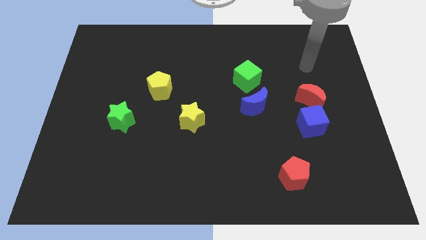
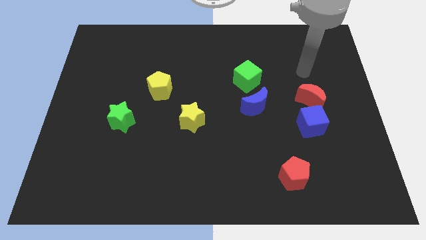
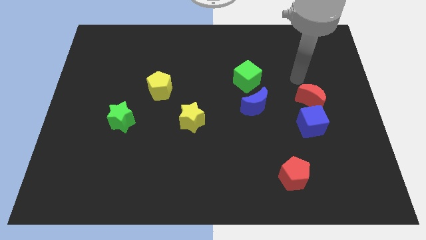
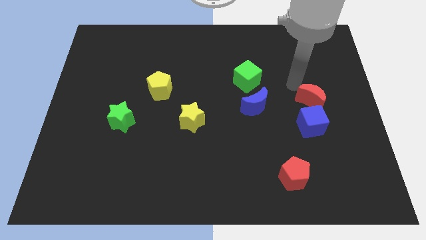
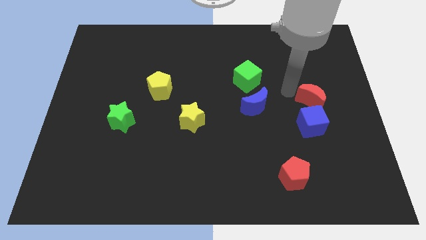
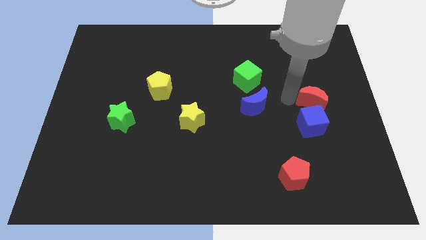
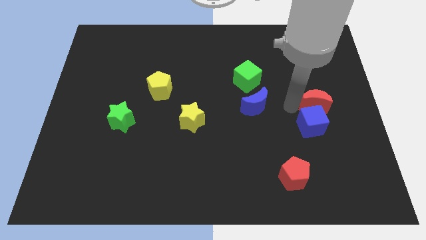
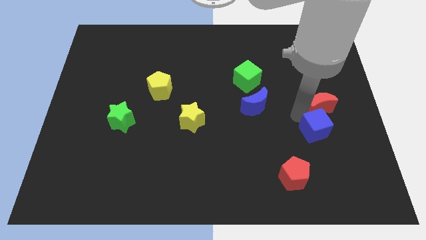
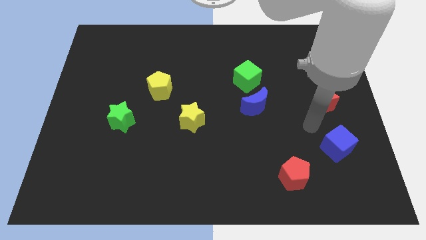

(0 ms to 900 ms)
pull the red moon apart from the blue cube

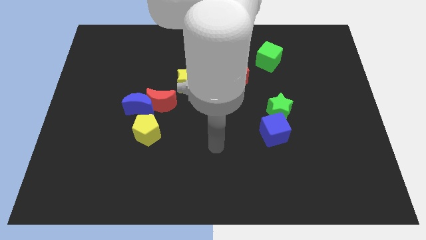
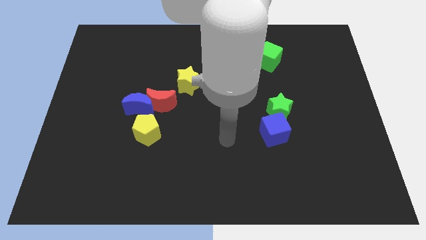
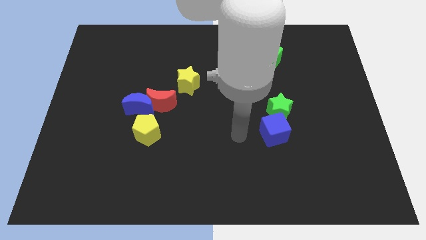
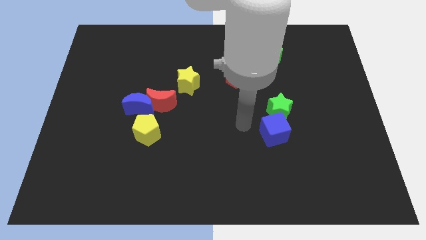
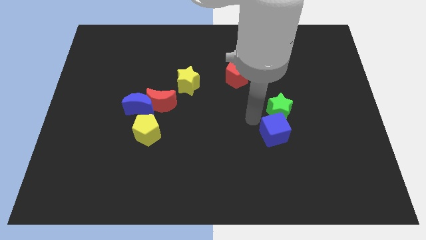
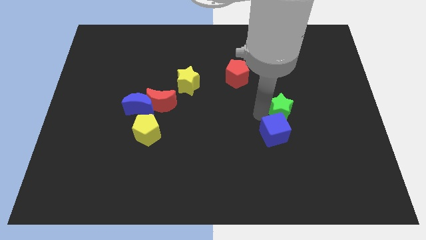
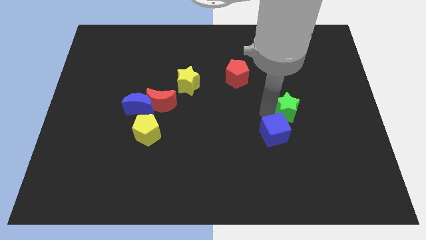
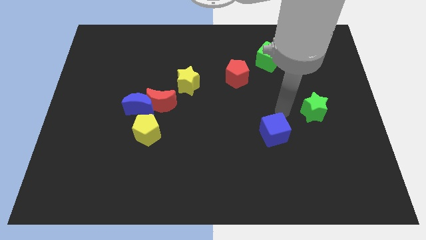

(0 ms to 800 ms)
move the blue cube away from the green star

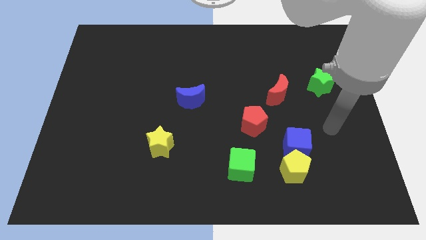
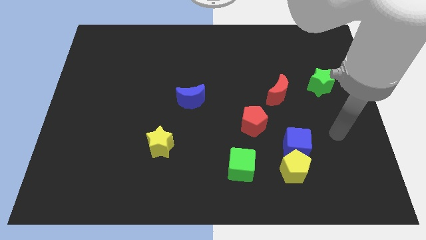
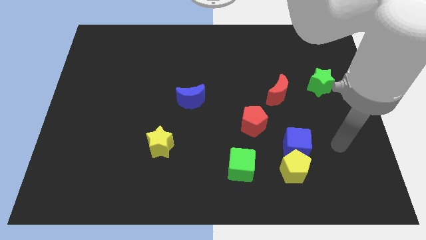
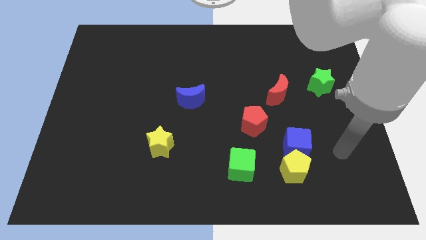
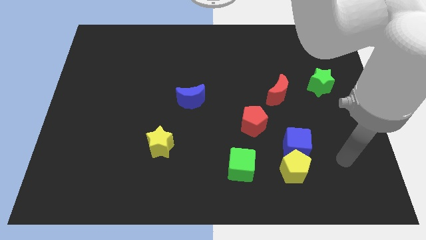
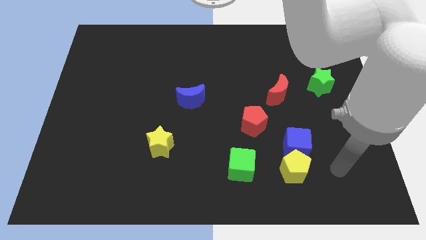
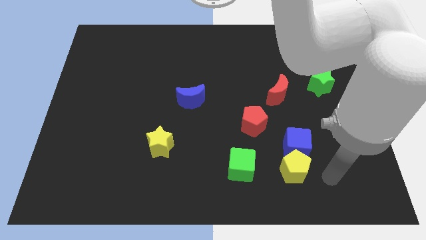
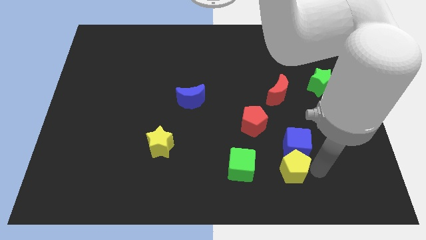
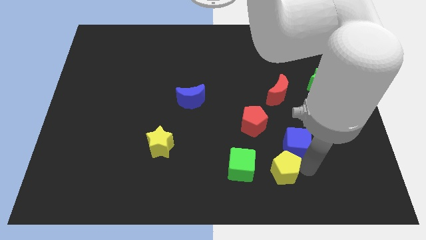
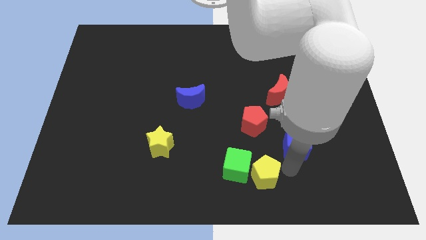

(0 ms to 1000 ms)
separate the blue cube from the yellow pentagon

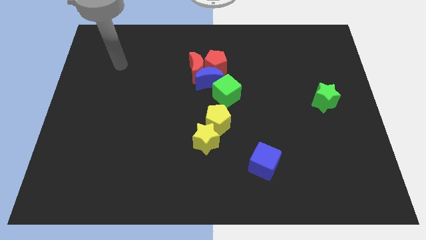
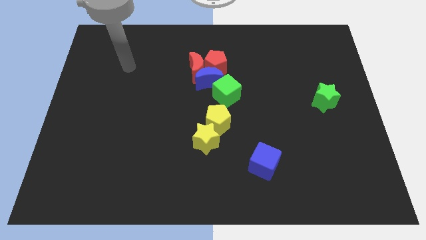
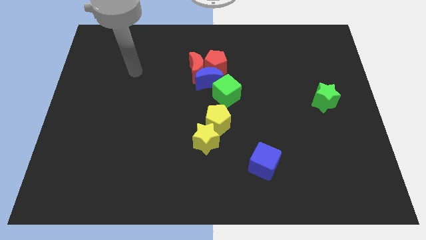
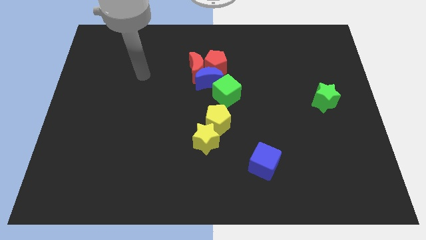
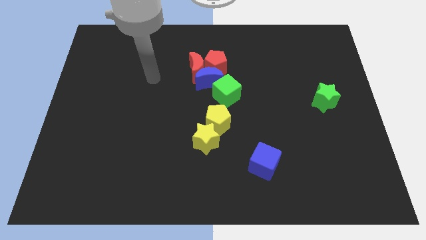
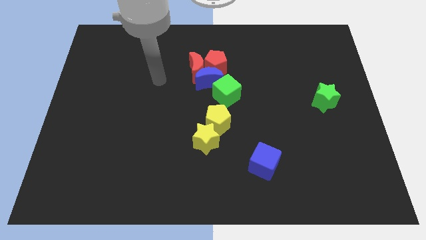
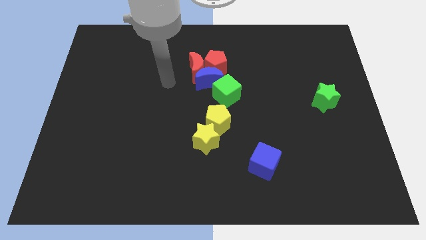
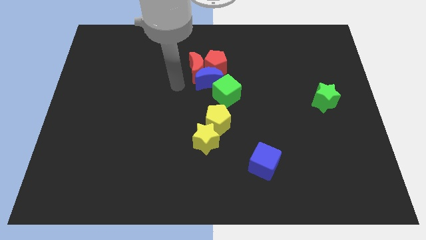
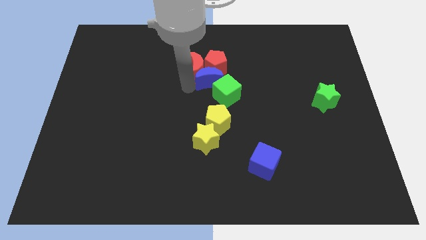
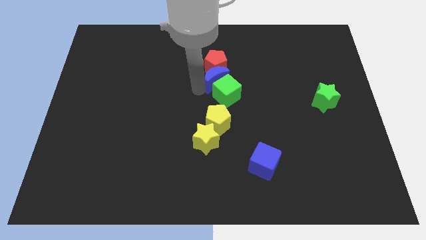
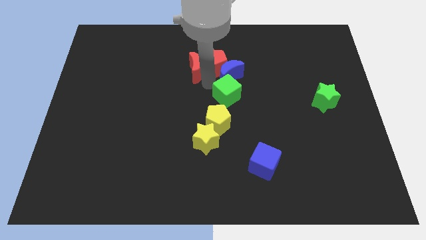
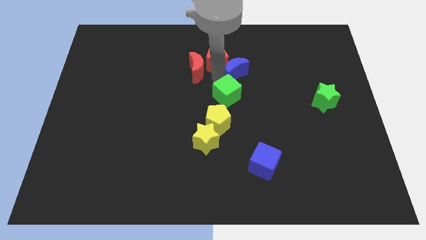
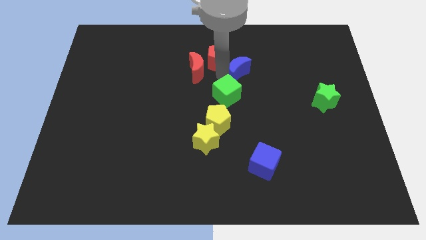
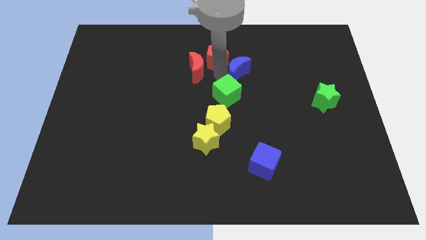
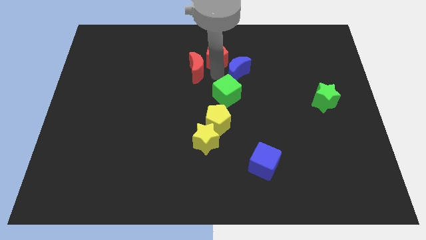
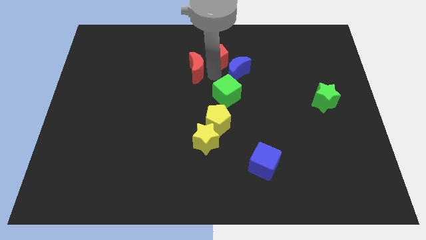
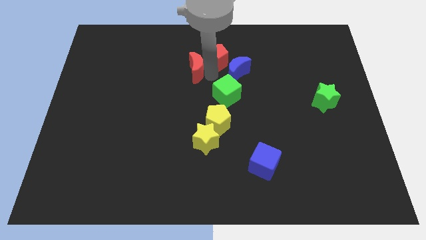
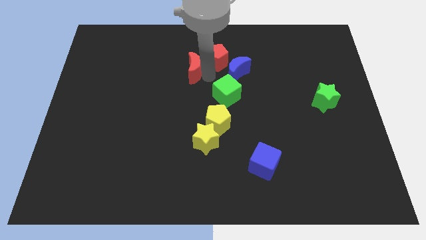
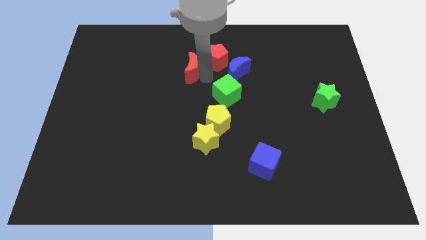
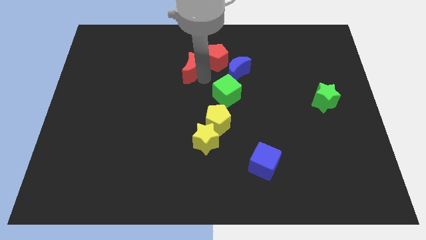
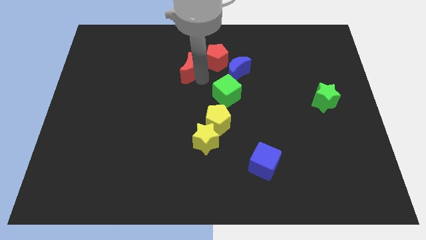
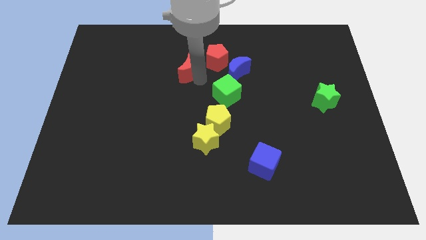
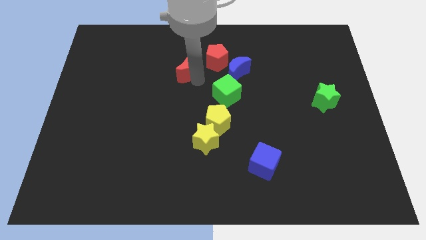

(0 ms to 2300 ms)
pull the red moon apart from the red pentagon and blue moon

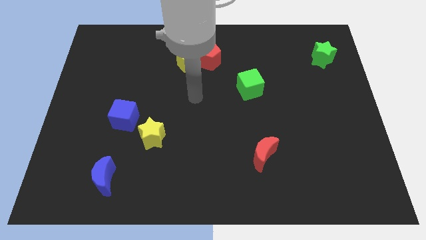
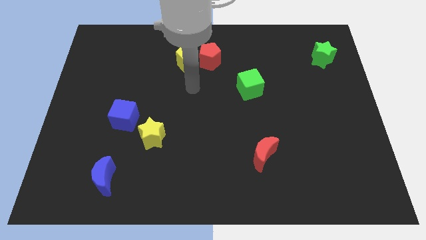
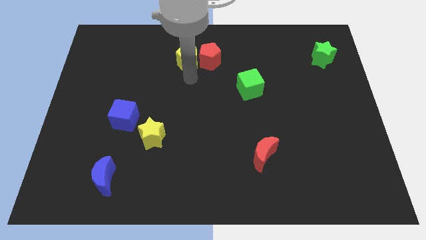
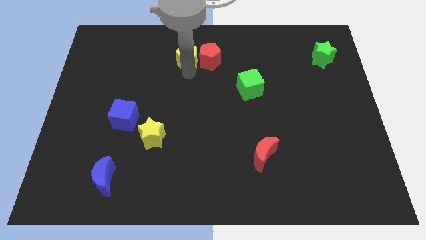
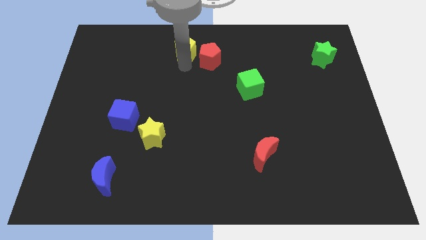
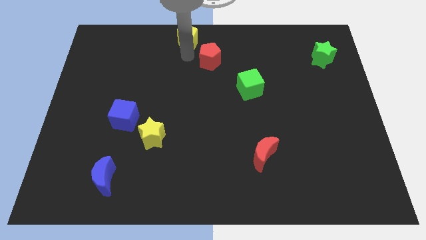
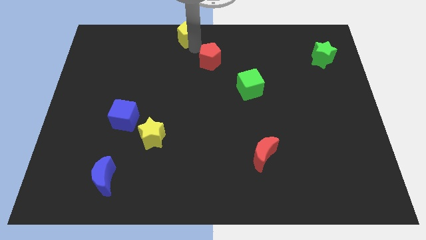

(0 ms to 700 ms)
separate the red pentagon from the yellow pentagon

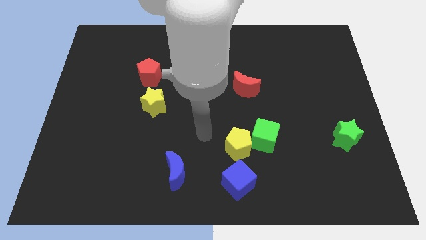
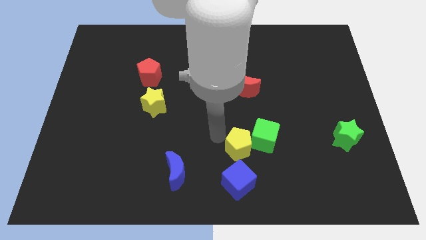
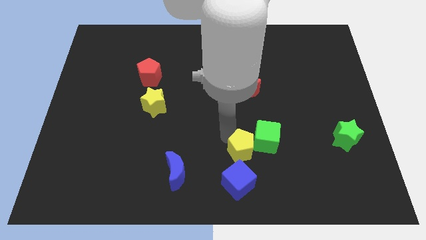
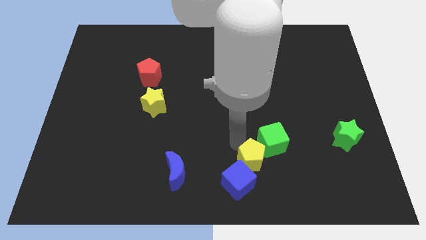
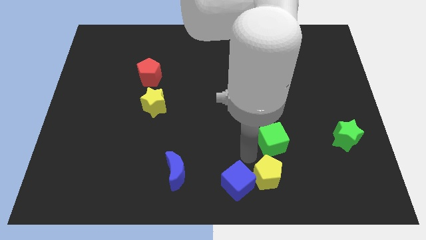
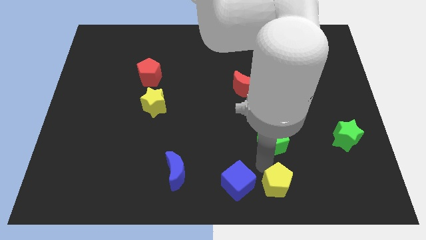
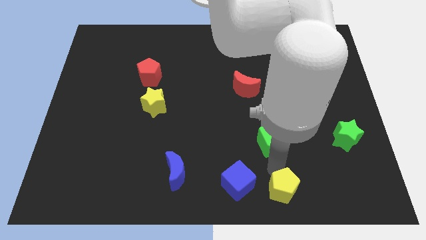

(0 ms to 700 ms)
pull the green cube apart from the yellow pentagon

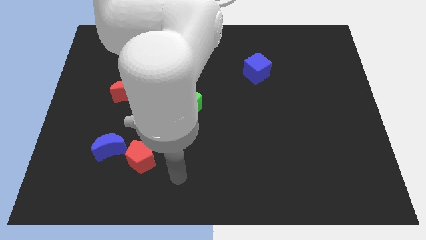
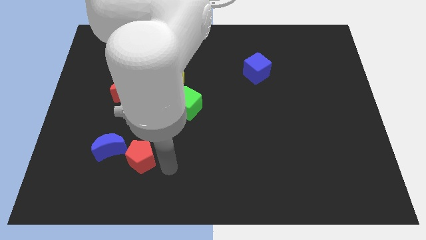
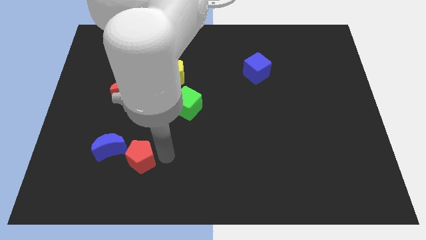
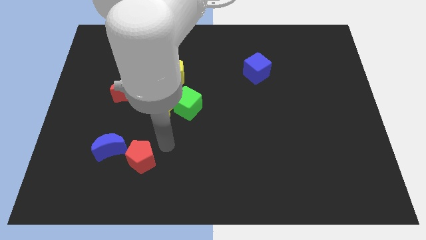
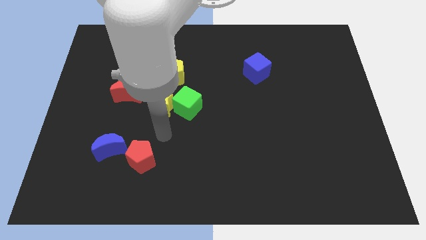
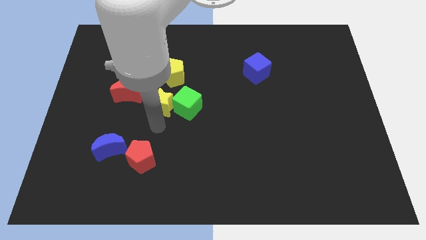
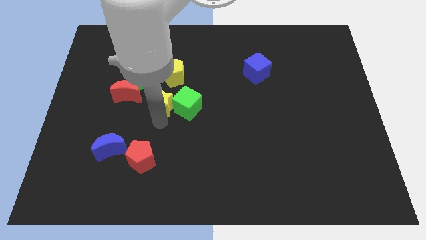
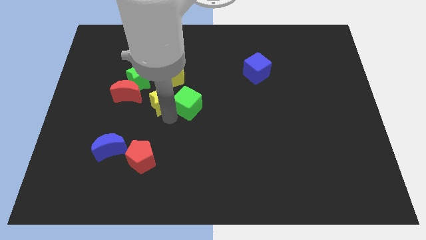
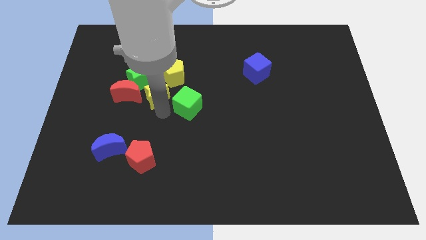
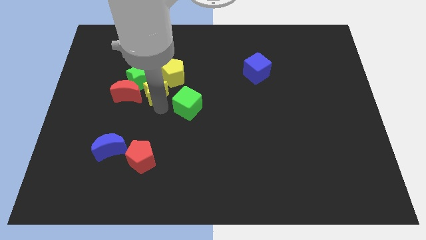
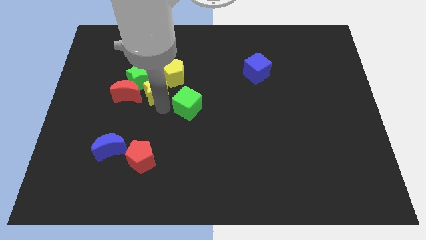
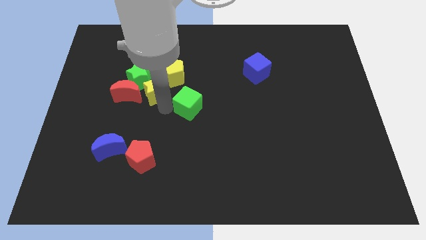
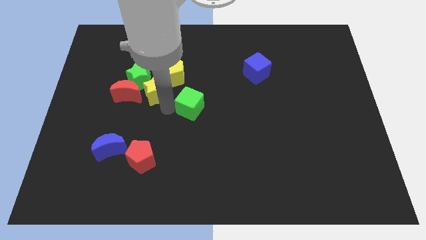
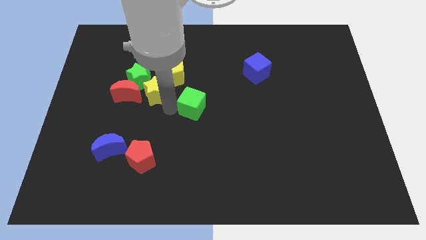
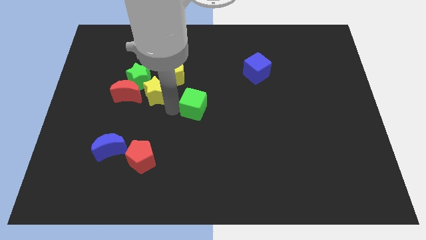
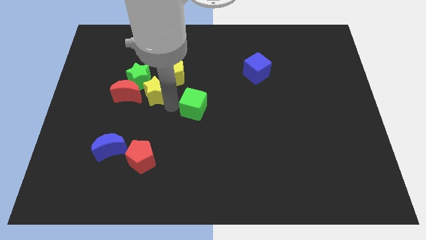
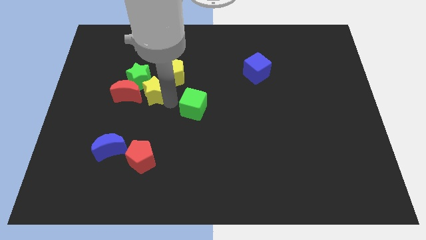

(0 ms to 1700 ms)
move the green cube away from the yellow star

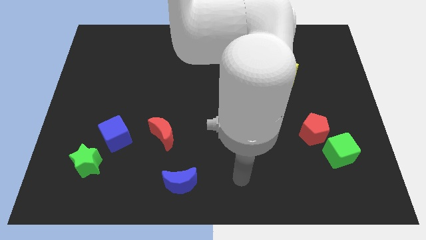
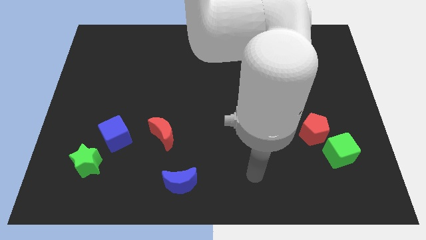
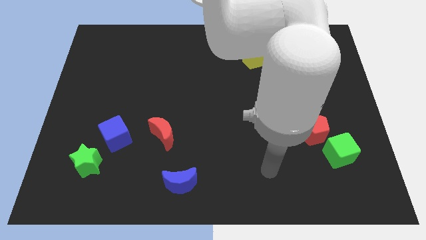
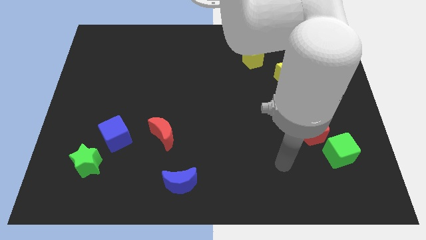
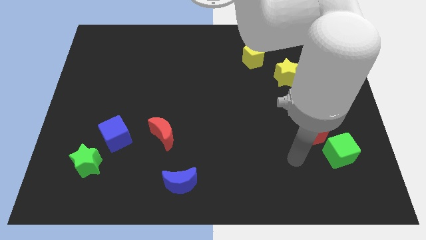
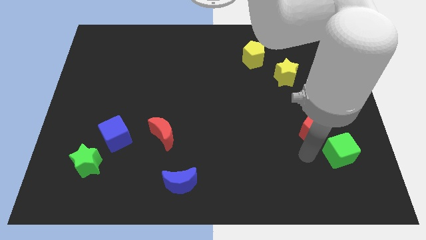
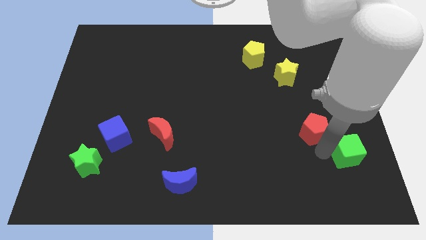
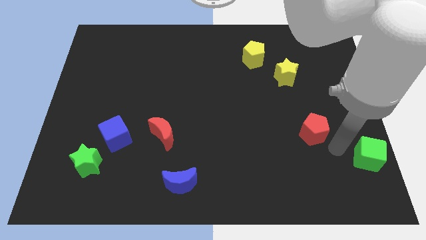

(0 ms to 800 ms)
move the red pentagon away from the green cube

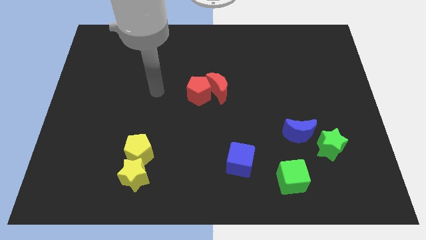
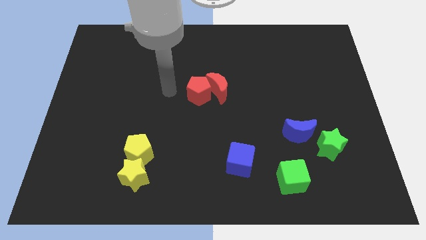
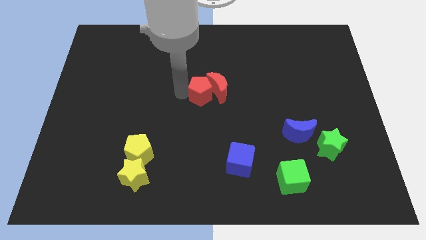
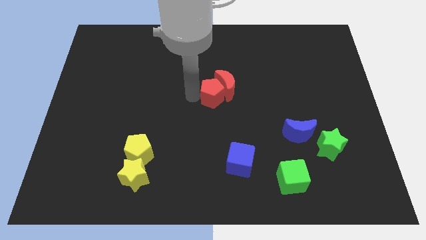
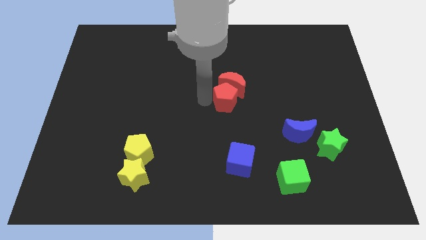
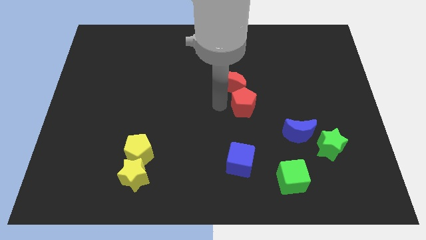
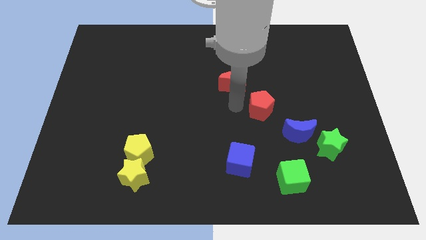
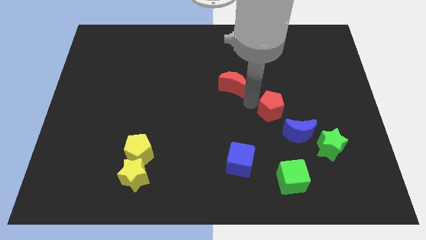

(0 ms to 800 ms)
separate the red moon from the red pentagon
